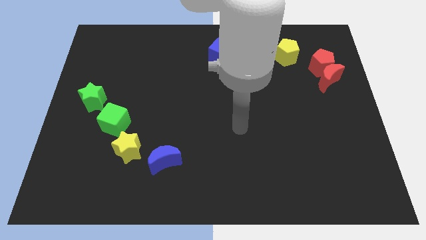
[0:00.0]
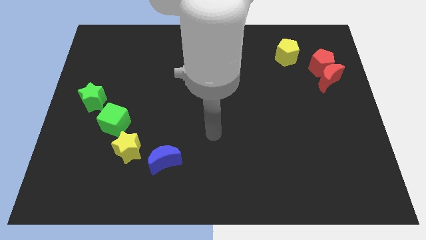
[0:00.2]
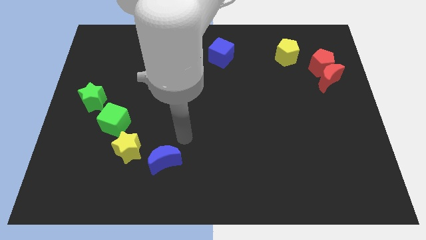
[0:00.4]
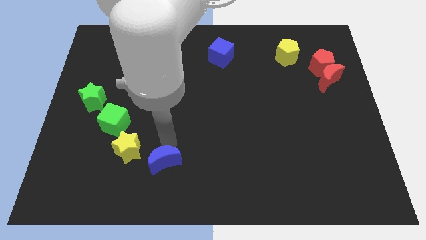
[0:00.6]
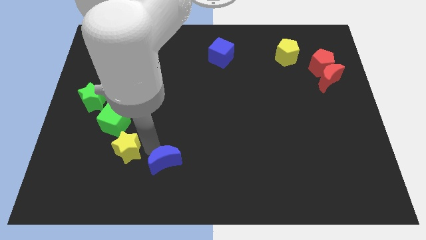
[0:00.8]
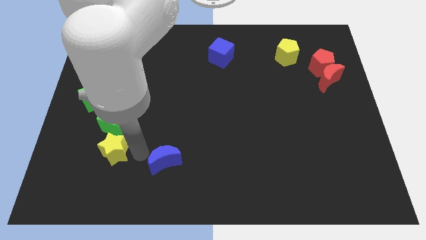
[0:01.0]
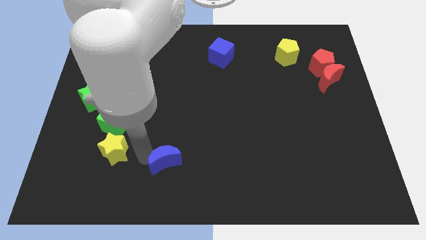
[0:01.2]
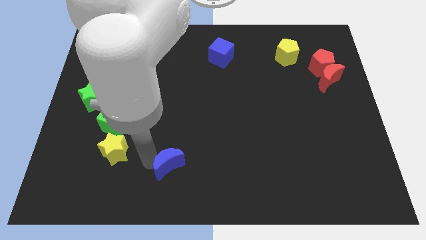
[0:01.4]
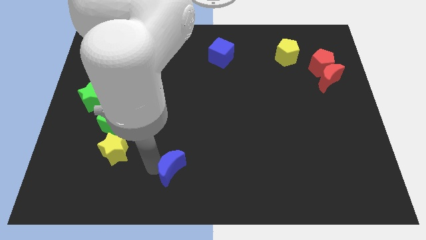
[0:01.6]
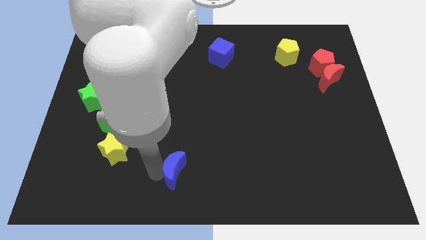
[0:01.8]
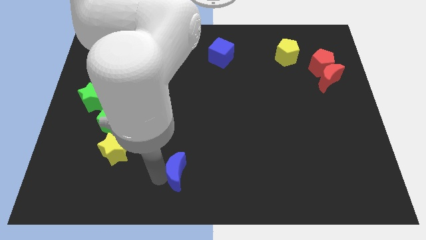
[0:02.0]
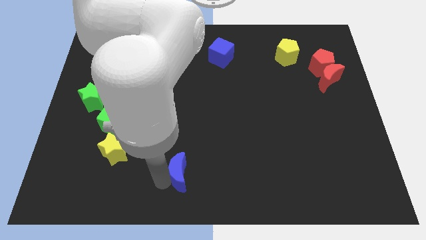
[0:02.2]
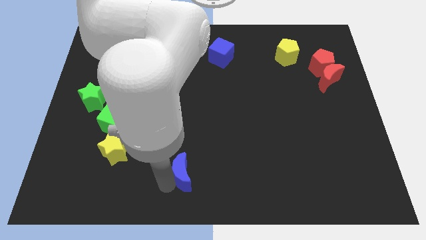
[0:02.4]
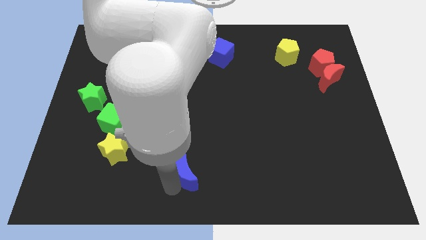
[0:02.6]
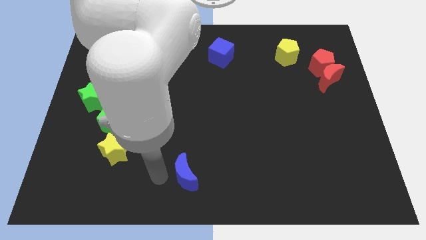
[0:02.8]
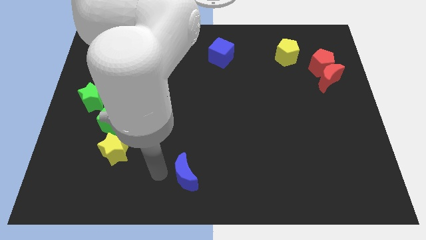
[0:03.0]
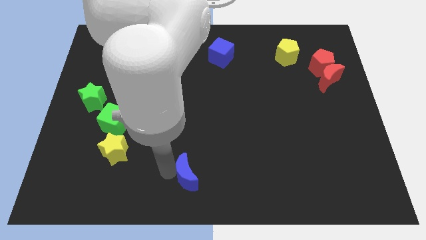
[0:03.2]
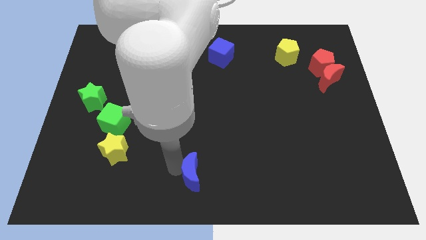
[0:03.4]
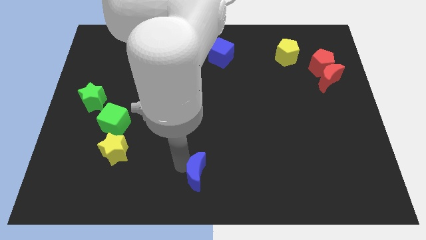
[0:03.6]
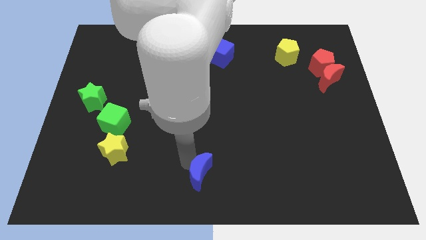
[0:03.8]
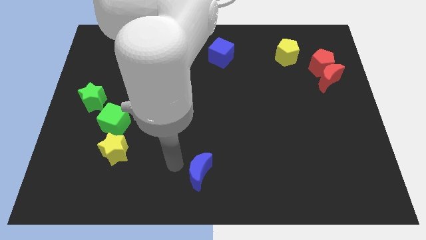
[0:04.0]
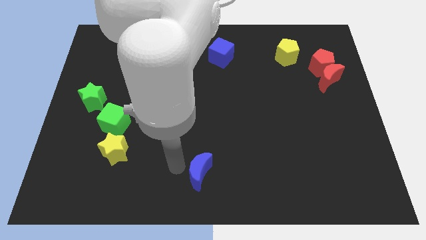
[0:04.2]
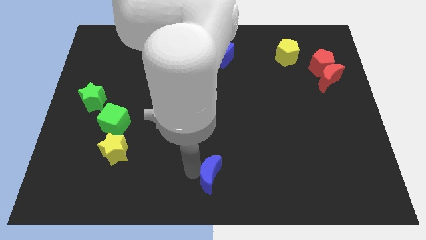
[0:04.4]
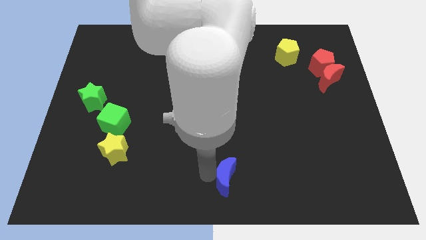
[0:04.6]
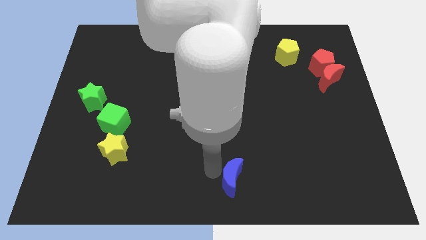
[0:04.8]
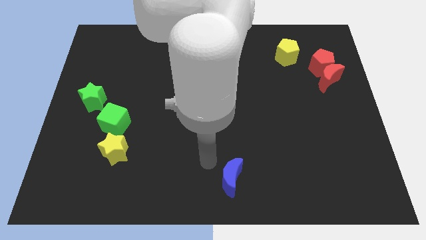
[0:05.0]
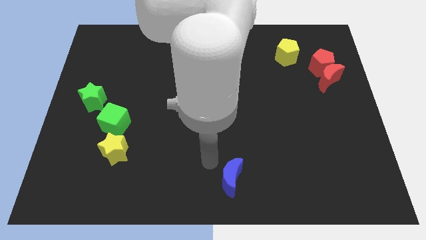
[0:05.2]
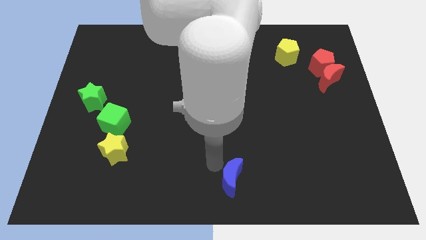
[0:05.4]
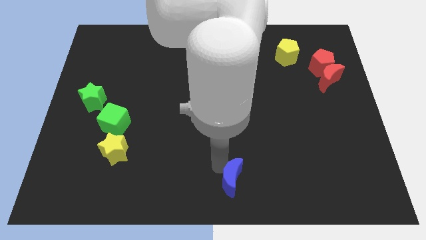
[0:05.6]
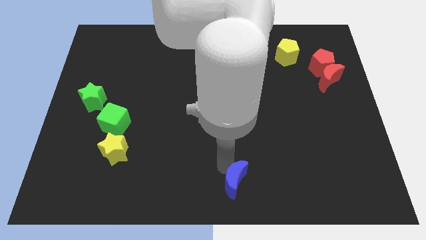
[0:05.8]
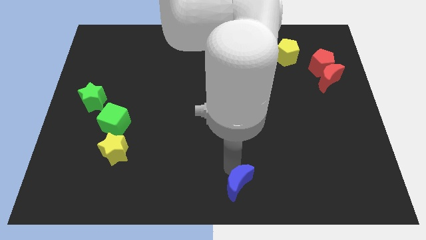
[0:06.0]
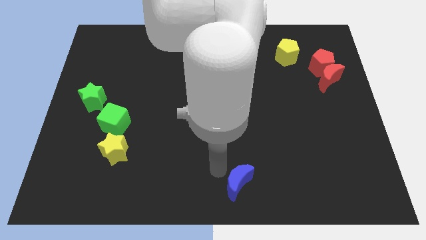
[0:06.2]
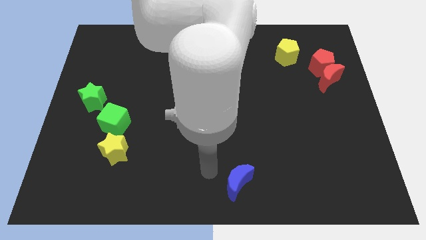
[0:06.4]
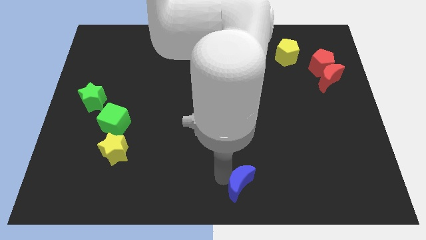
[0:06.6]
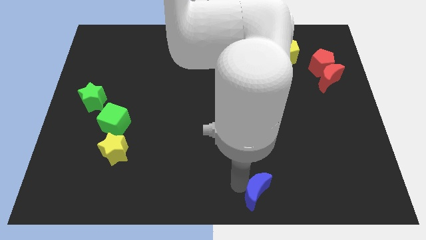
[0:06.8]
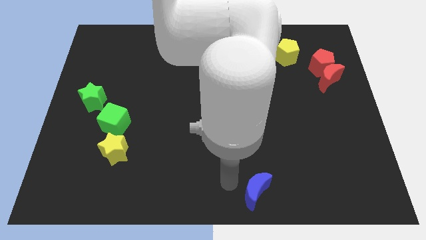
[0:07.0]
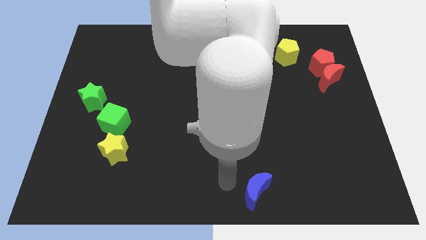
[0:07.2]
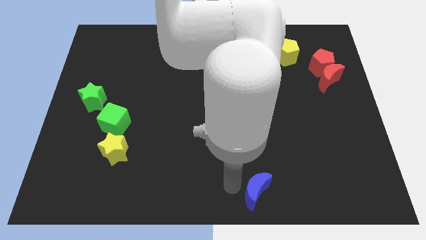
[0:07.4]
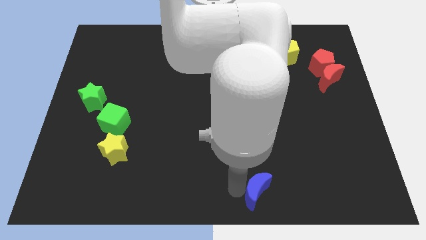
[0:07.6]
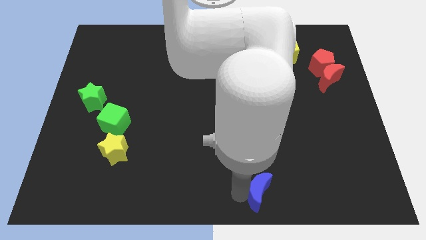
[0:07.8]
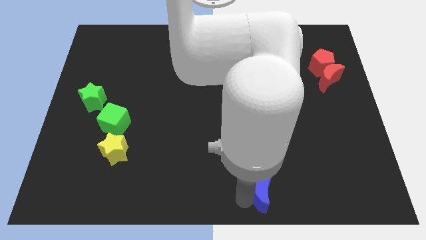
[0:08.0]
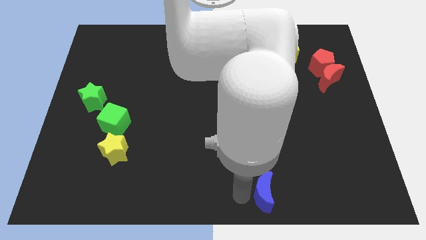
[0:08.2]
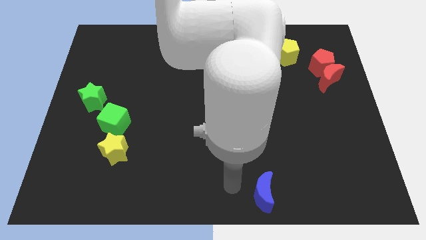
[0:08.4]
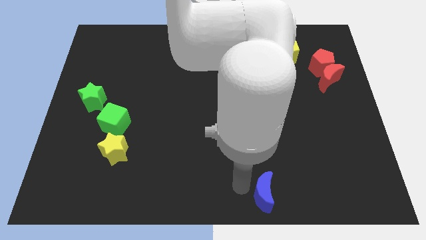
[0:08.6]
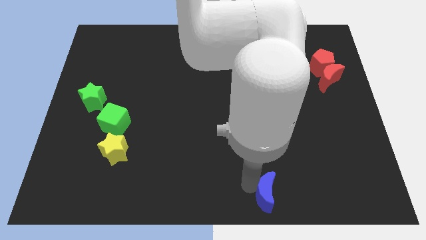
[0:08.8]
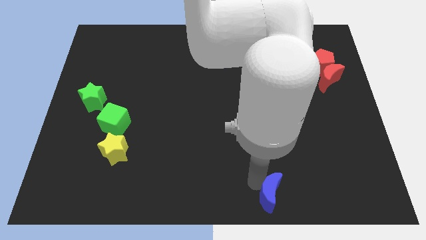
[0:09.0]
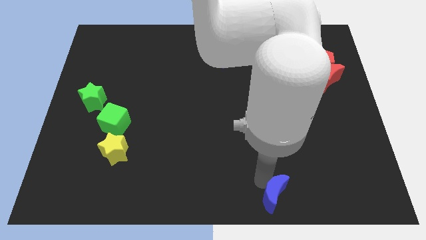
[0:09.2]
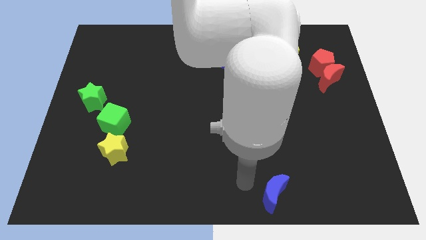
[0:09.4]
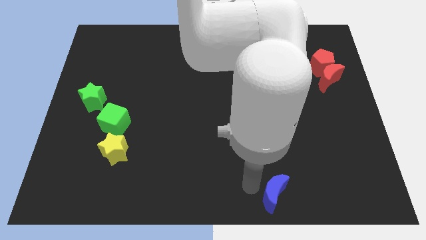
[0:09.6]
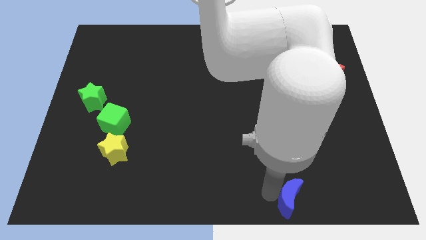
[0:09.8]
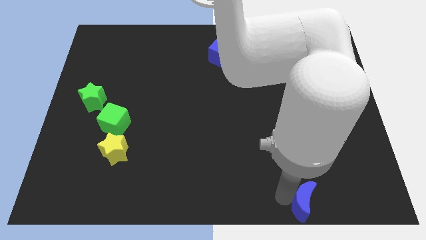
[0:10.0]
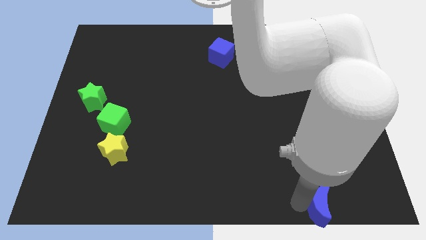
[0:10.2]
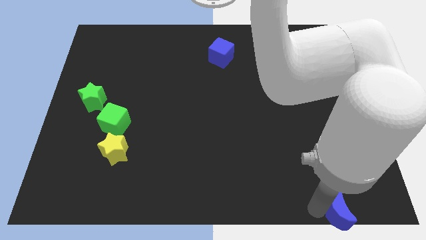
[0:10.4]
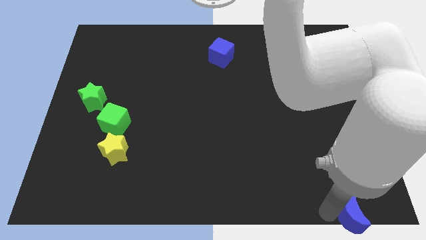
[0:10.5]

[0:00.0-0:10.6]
put the blue moon to the lower right corner

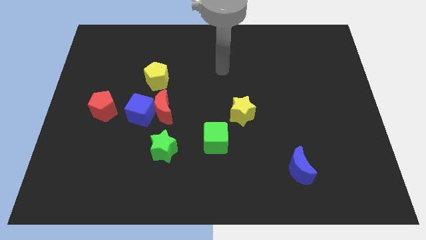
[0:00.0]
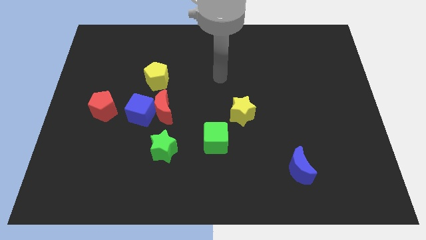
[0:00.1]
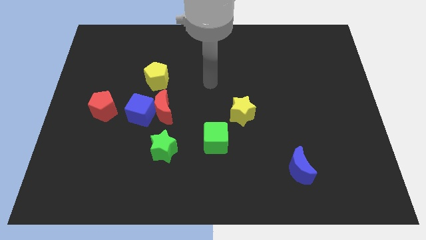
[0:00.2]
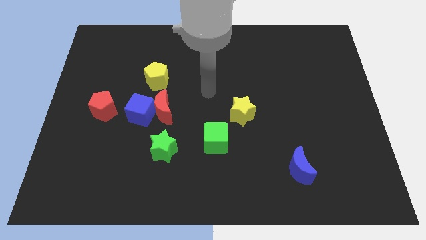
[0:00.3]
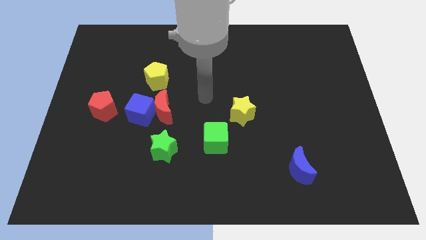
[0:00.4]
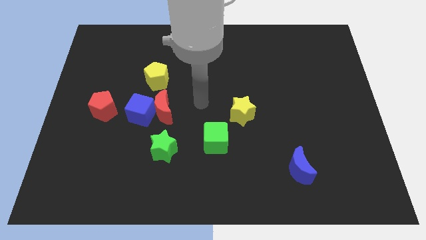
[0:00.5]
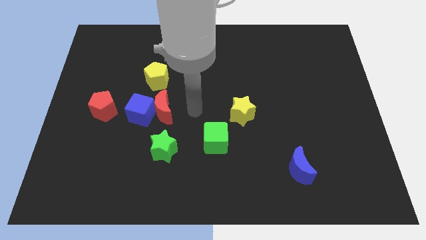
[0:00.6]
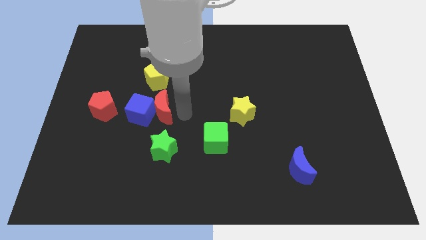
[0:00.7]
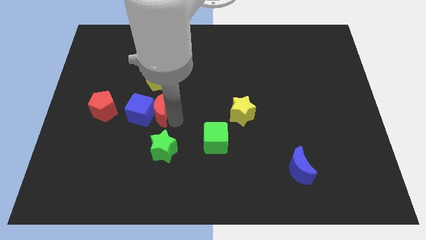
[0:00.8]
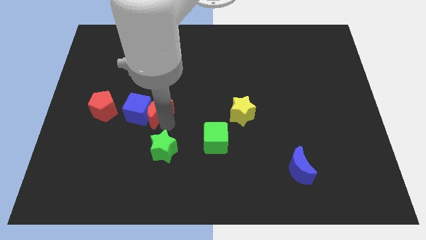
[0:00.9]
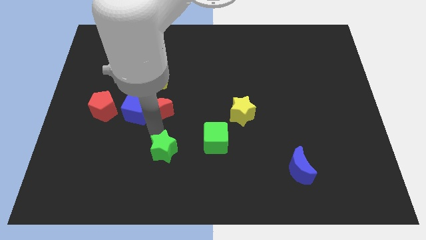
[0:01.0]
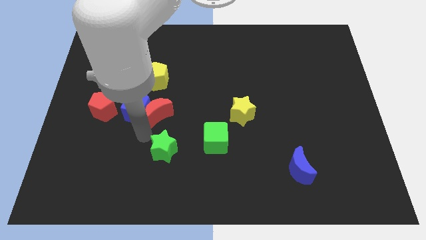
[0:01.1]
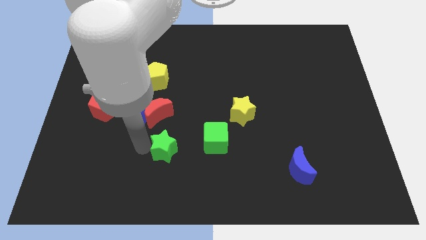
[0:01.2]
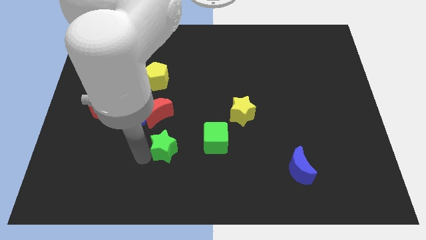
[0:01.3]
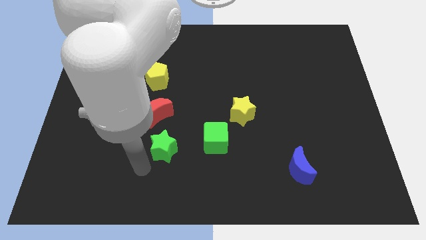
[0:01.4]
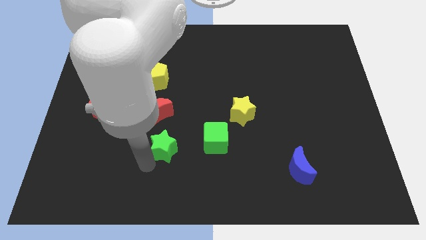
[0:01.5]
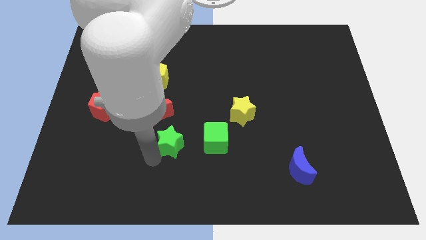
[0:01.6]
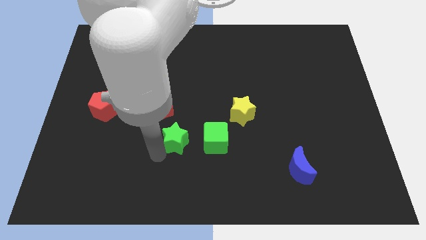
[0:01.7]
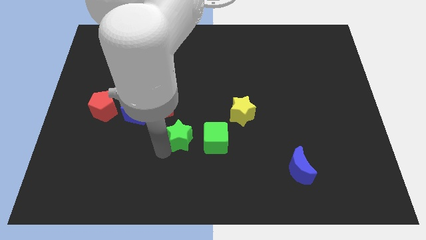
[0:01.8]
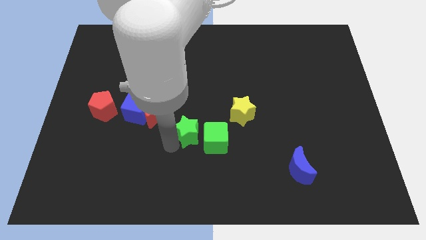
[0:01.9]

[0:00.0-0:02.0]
push the green star to the center of the board
